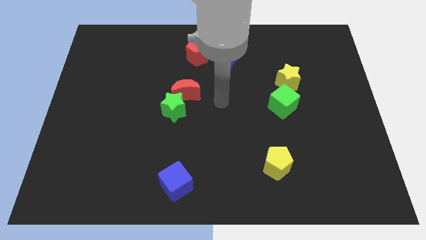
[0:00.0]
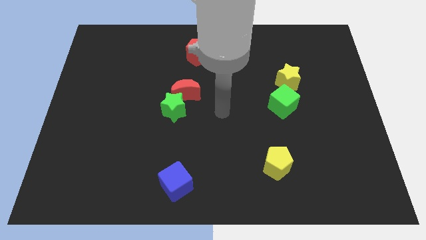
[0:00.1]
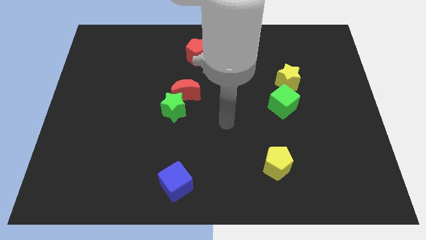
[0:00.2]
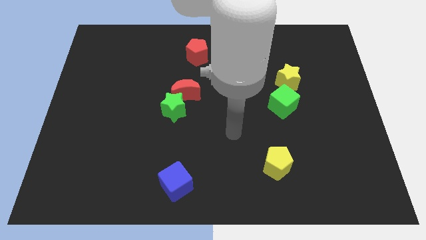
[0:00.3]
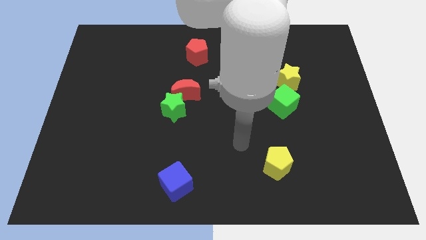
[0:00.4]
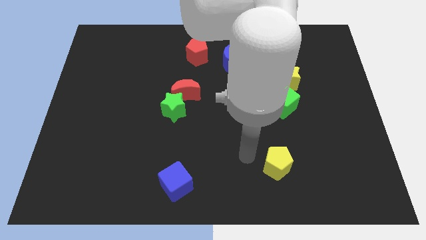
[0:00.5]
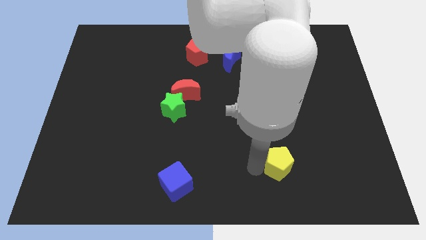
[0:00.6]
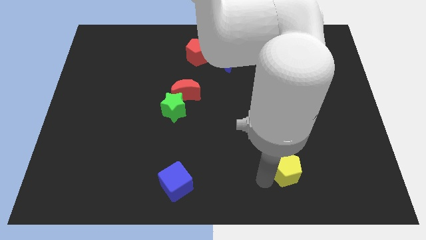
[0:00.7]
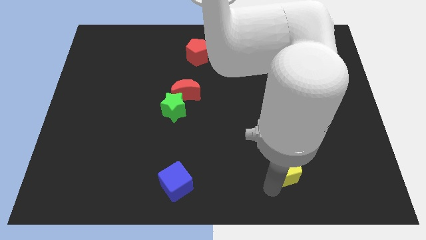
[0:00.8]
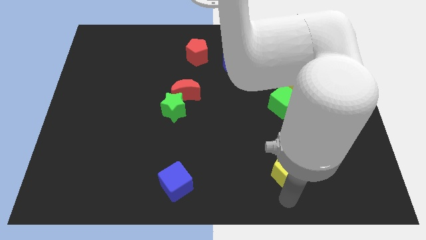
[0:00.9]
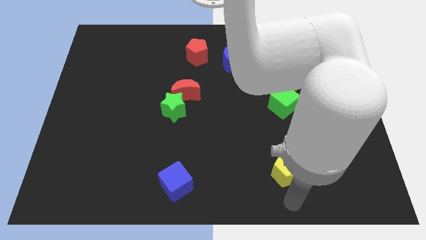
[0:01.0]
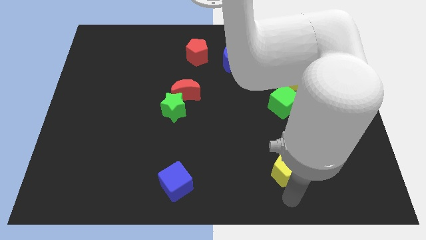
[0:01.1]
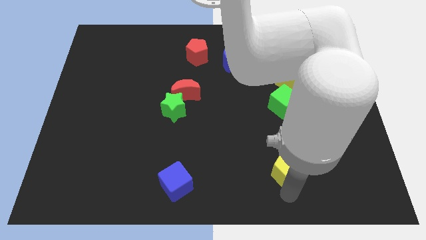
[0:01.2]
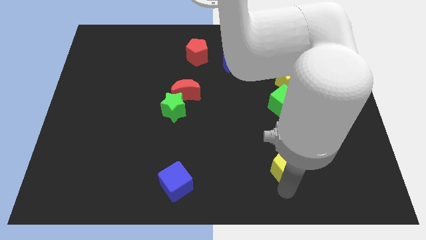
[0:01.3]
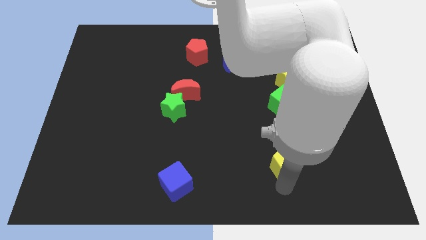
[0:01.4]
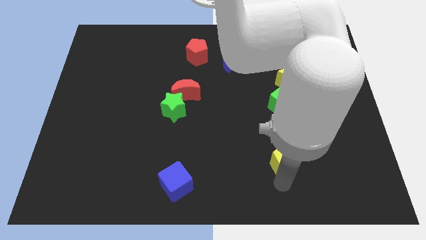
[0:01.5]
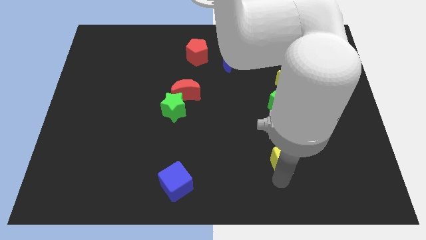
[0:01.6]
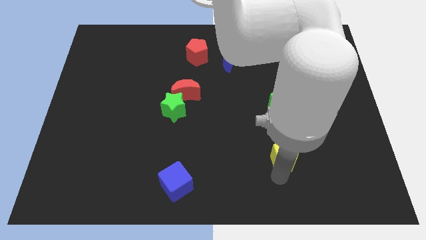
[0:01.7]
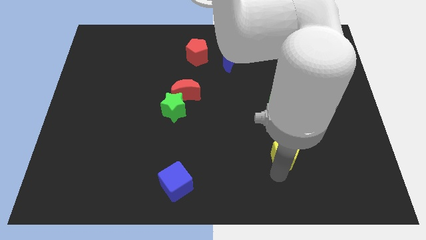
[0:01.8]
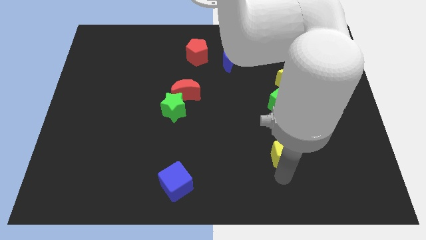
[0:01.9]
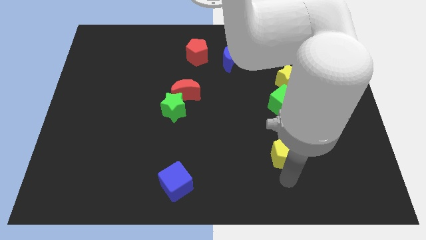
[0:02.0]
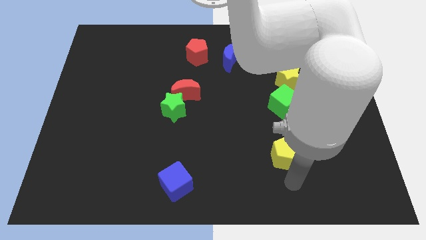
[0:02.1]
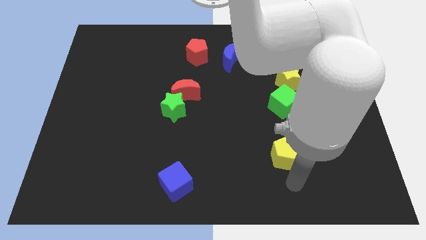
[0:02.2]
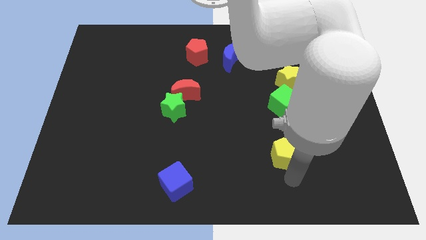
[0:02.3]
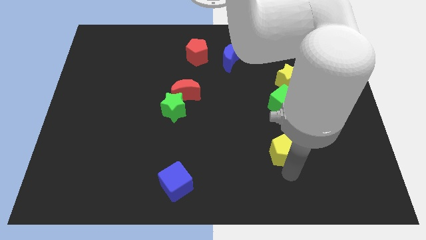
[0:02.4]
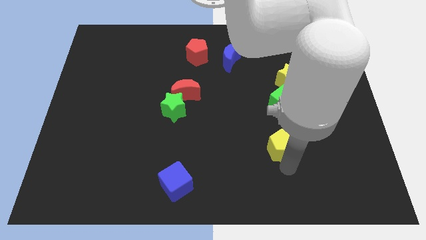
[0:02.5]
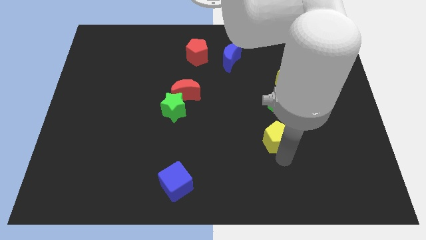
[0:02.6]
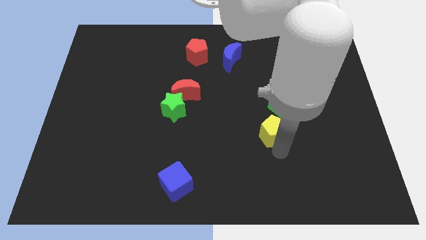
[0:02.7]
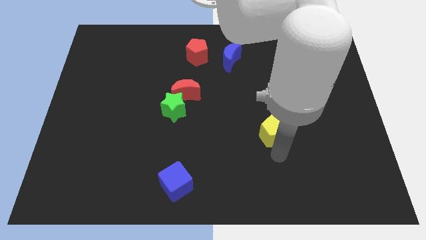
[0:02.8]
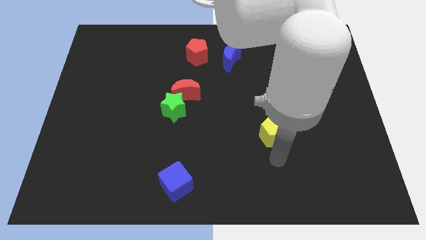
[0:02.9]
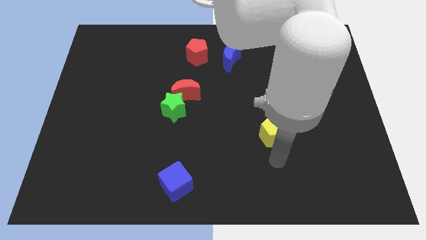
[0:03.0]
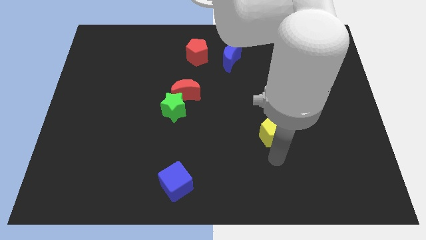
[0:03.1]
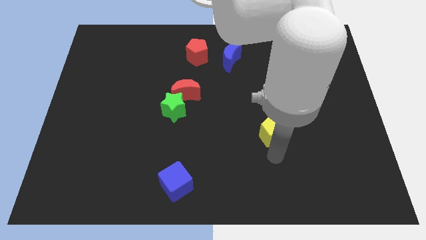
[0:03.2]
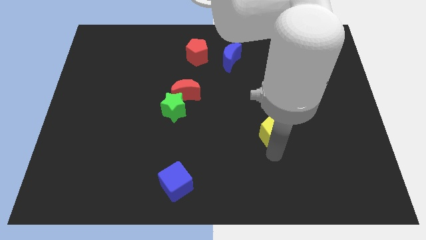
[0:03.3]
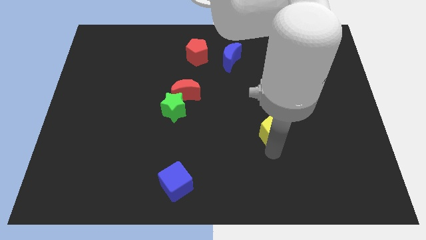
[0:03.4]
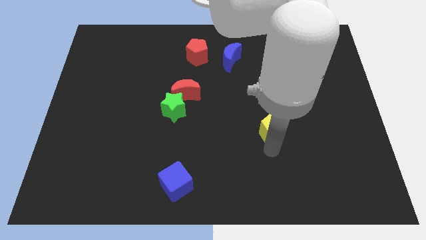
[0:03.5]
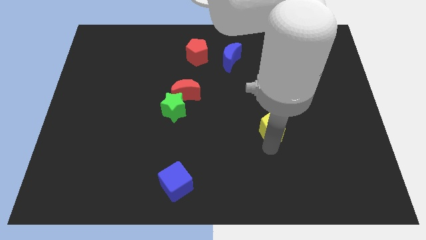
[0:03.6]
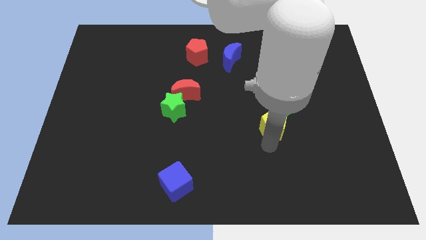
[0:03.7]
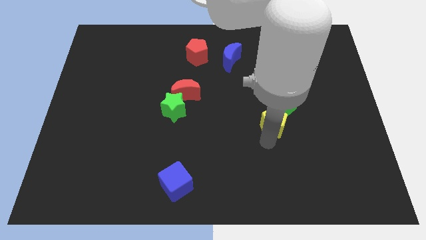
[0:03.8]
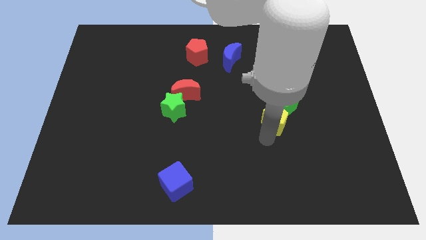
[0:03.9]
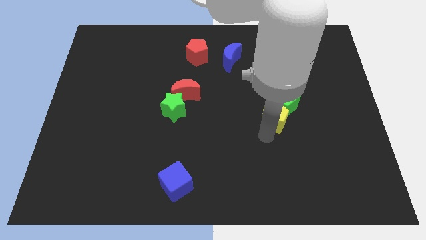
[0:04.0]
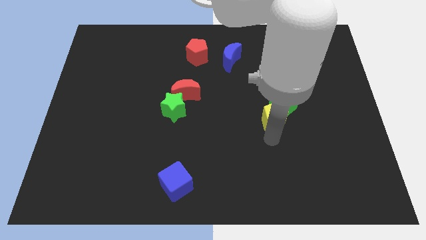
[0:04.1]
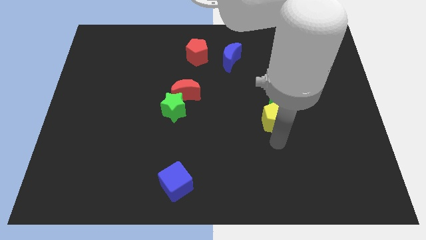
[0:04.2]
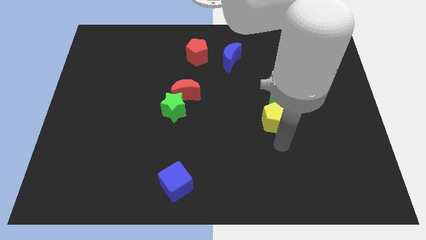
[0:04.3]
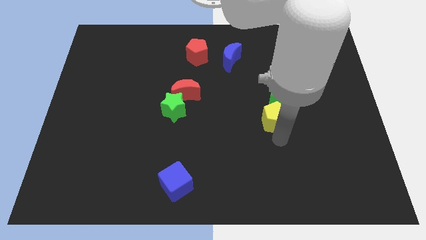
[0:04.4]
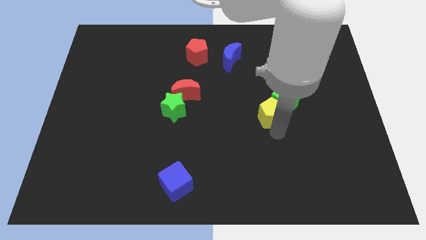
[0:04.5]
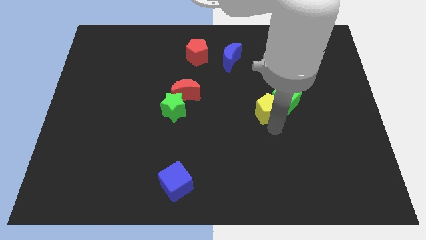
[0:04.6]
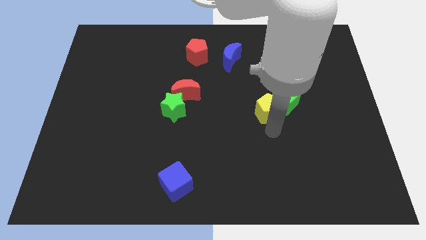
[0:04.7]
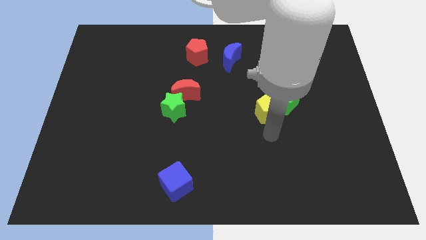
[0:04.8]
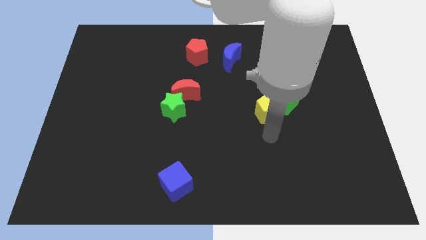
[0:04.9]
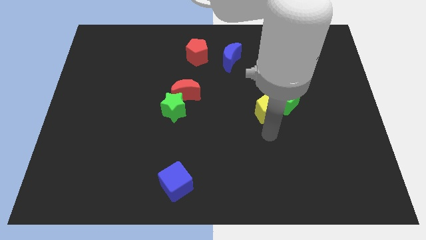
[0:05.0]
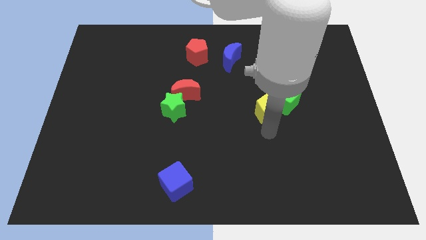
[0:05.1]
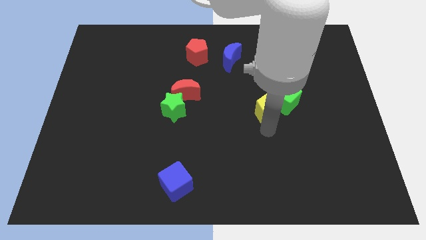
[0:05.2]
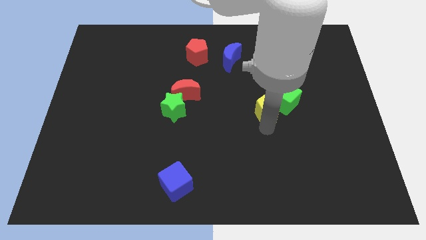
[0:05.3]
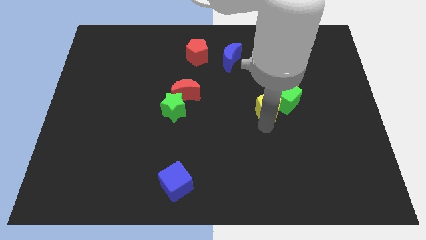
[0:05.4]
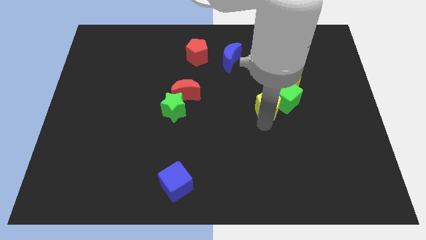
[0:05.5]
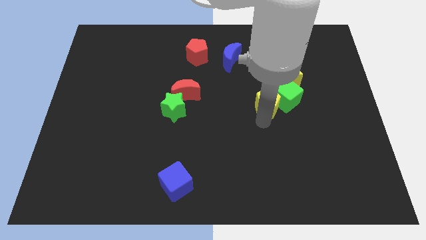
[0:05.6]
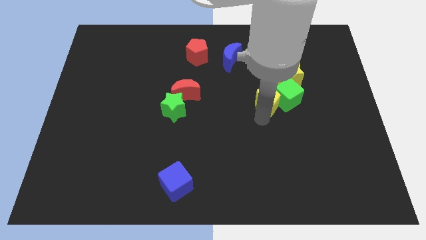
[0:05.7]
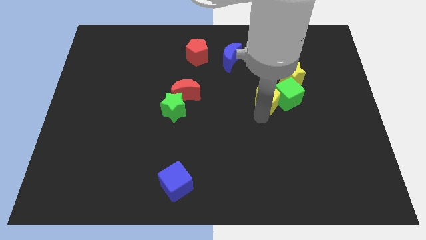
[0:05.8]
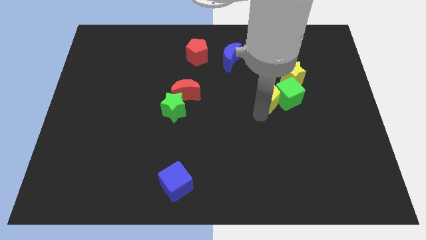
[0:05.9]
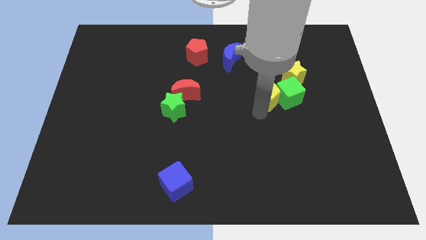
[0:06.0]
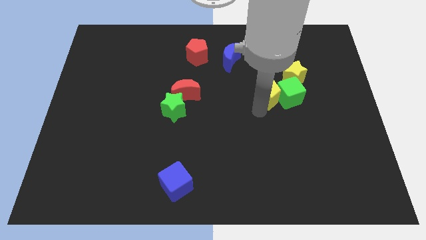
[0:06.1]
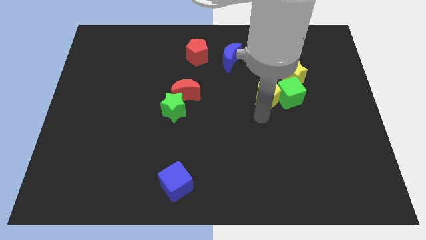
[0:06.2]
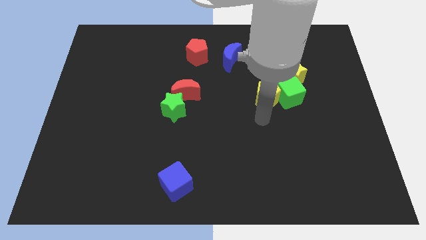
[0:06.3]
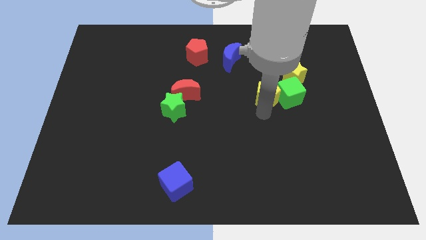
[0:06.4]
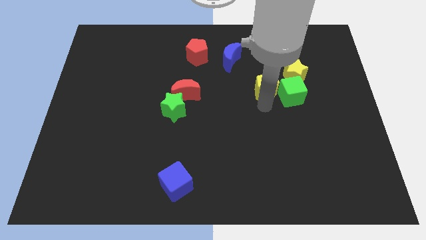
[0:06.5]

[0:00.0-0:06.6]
push the yellow pentagon up

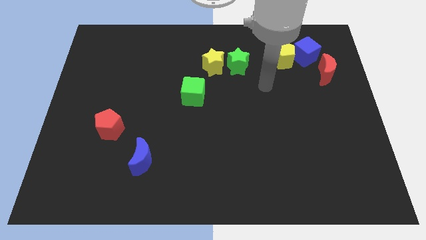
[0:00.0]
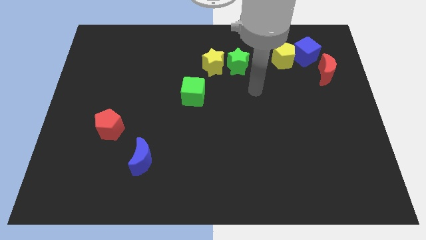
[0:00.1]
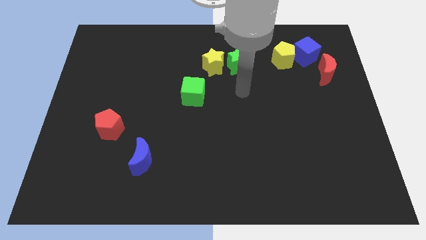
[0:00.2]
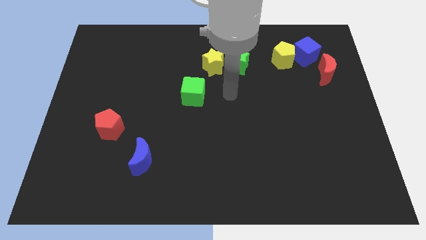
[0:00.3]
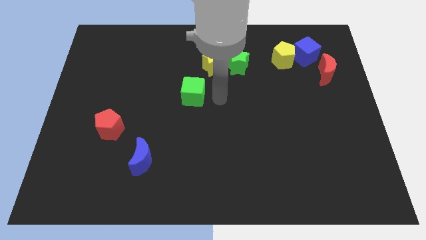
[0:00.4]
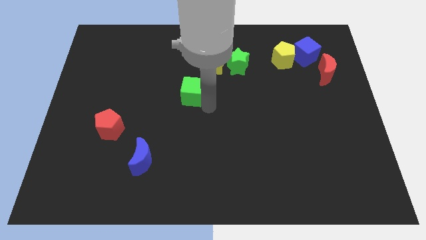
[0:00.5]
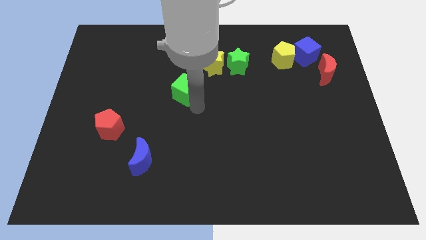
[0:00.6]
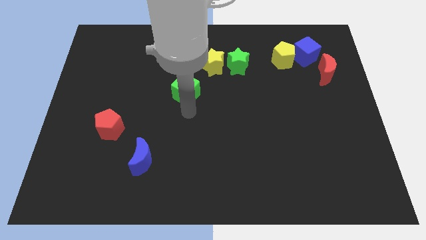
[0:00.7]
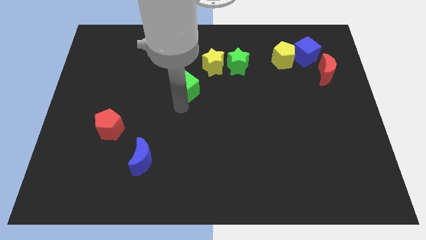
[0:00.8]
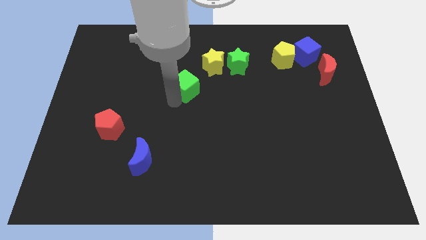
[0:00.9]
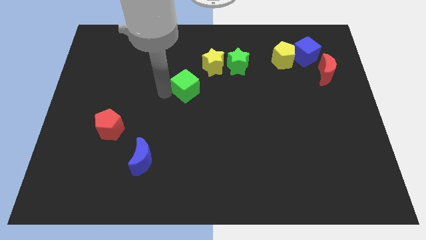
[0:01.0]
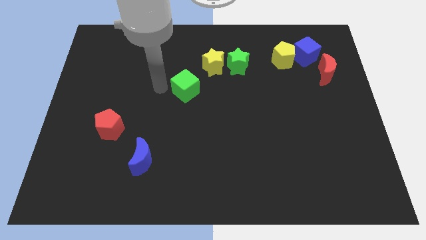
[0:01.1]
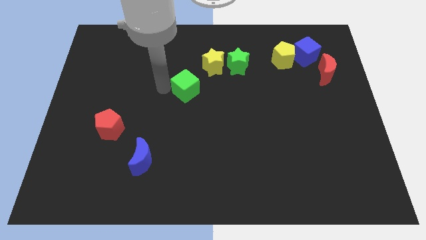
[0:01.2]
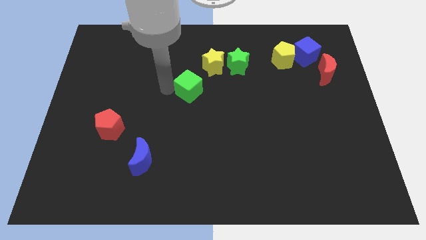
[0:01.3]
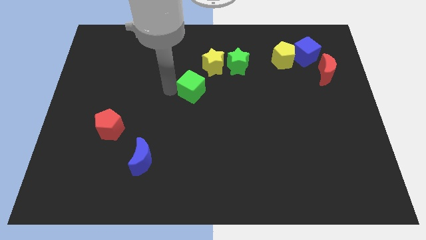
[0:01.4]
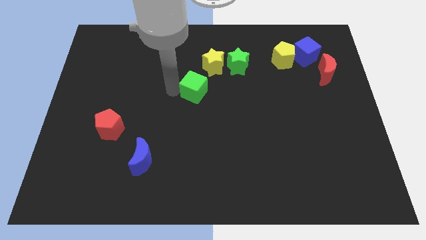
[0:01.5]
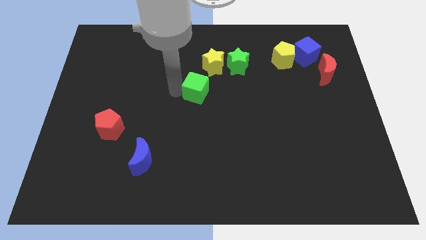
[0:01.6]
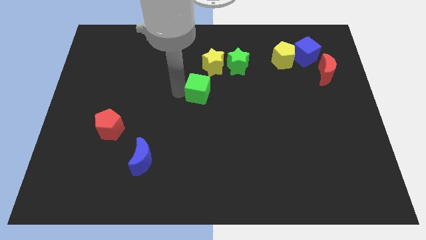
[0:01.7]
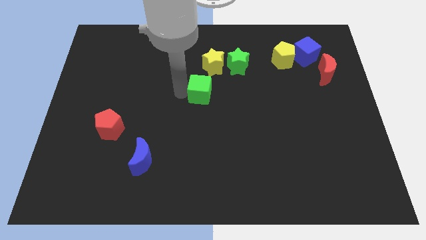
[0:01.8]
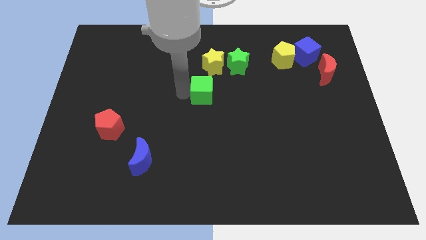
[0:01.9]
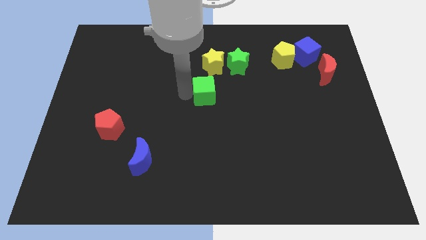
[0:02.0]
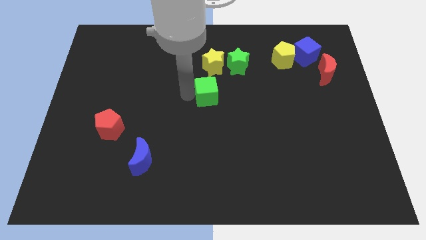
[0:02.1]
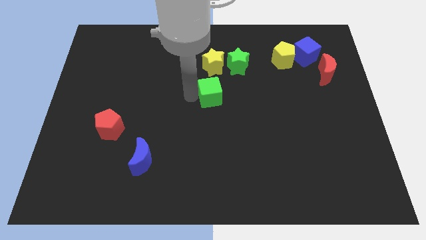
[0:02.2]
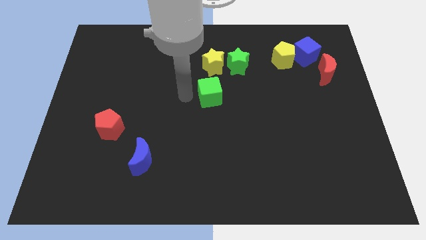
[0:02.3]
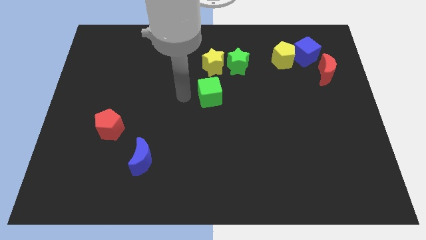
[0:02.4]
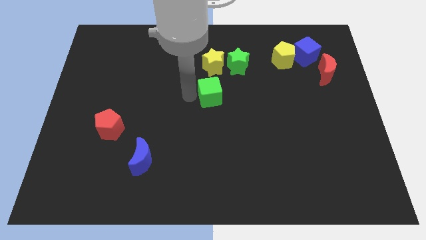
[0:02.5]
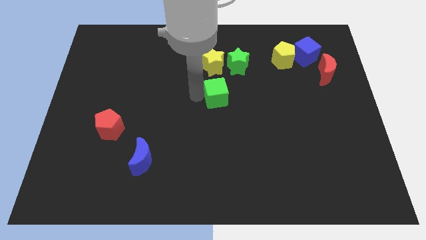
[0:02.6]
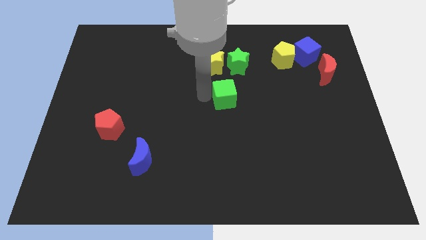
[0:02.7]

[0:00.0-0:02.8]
move the green cube a little right
